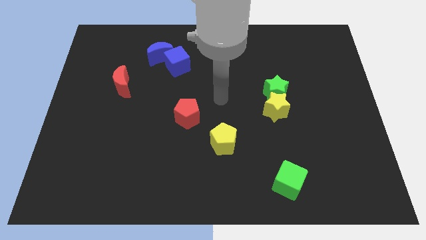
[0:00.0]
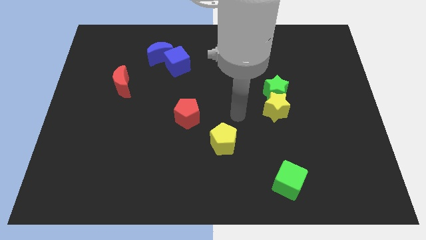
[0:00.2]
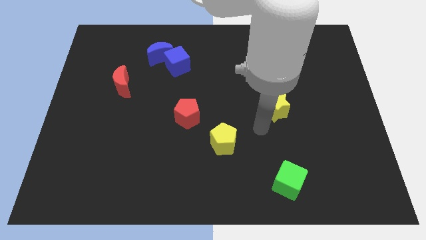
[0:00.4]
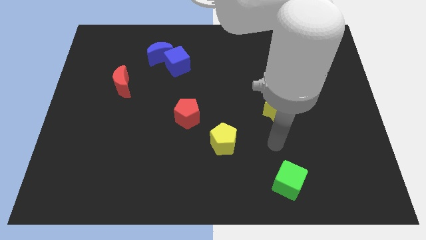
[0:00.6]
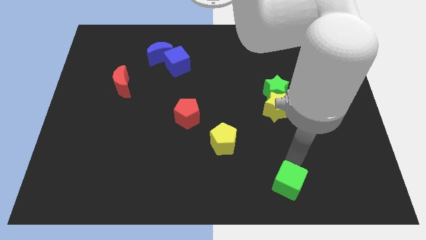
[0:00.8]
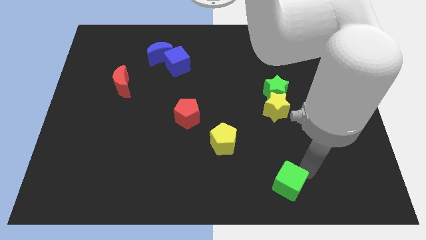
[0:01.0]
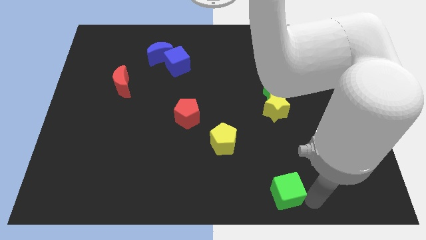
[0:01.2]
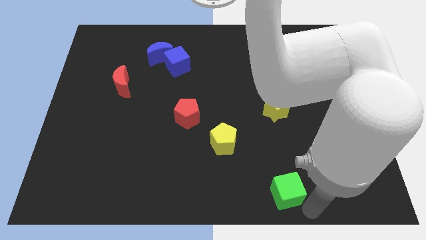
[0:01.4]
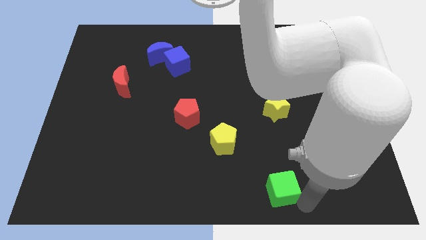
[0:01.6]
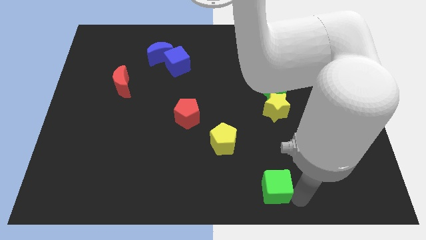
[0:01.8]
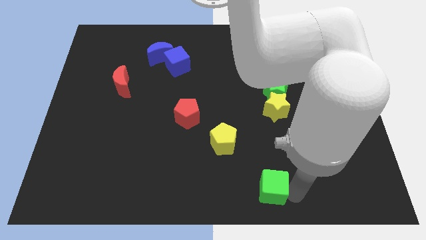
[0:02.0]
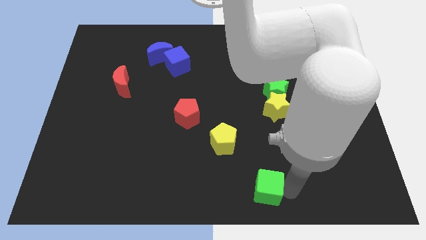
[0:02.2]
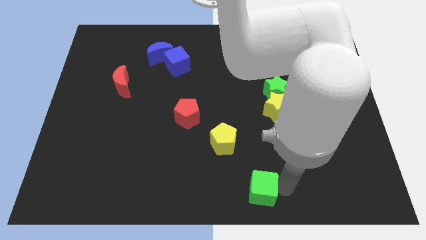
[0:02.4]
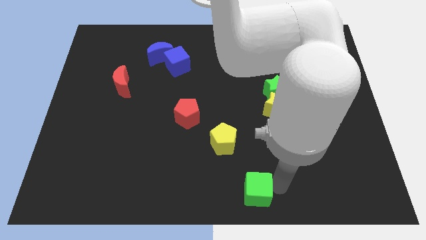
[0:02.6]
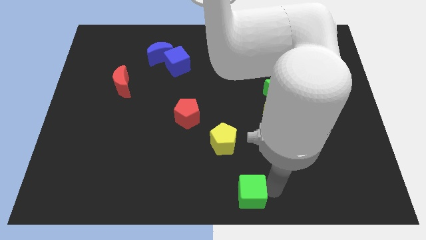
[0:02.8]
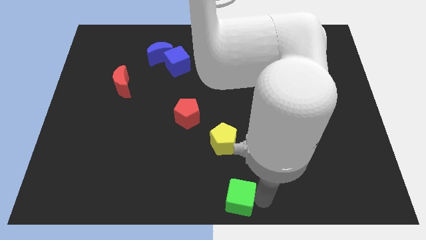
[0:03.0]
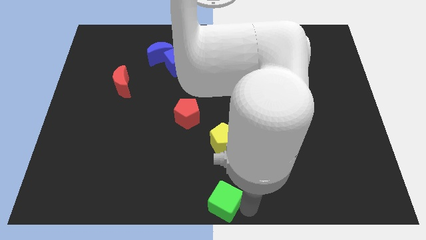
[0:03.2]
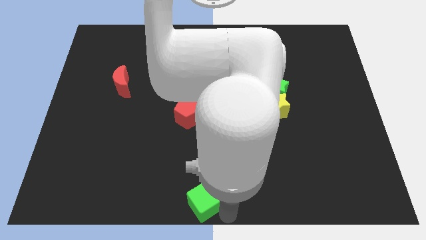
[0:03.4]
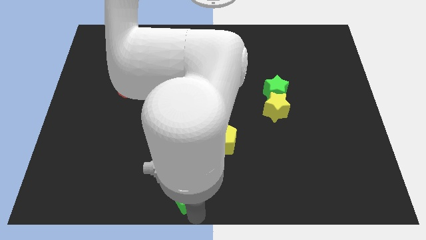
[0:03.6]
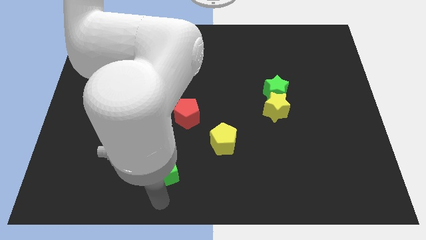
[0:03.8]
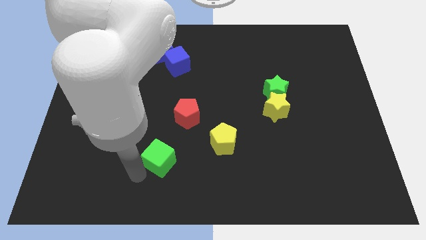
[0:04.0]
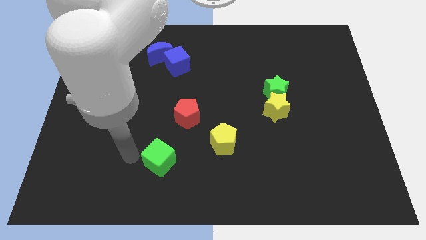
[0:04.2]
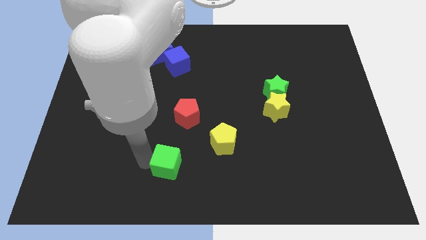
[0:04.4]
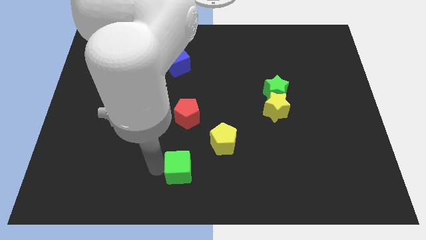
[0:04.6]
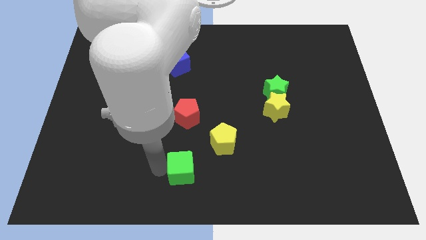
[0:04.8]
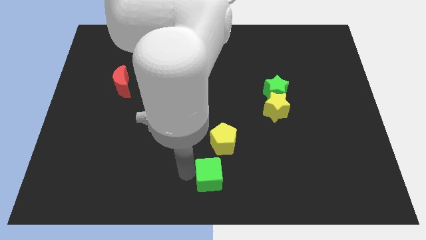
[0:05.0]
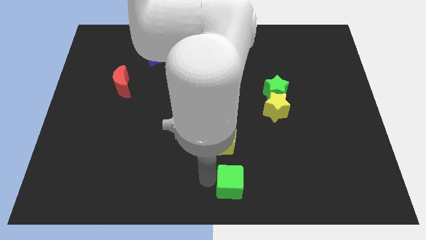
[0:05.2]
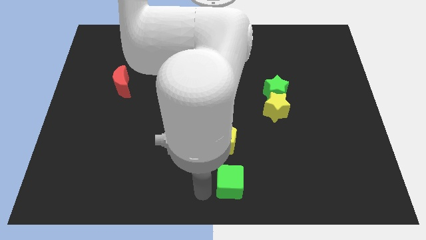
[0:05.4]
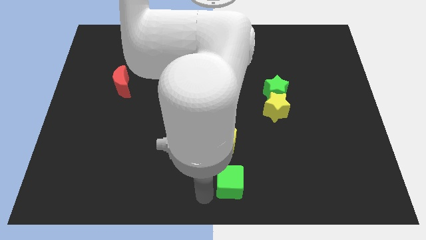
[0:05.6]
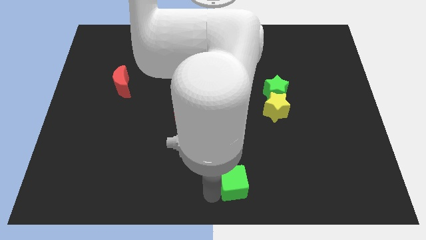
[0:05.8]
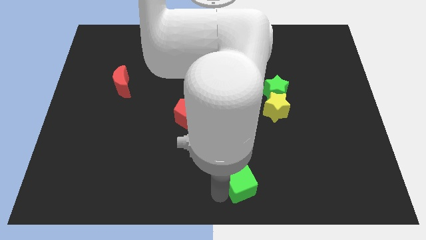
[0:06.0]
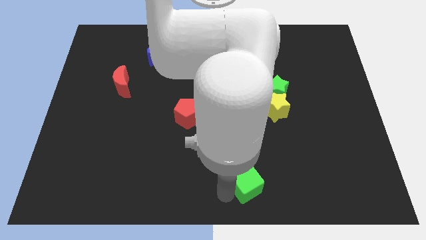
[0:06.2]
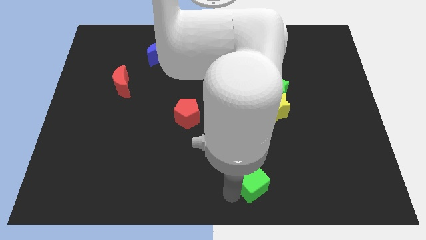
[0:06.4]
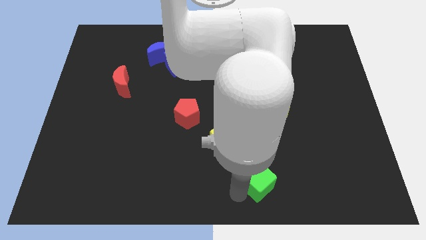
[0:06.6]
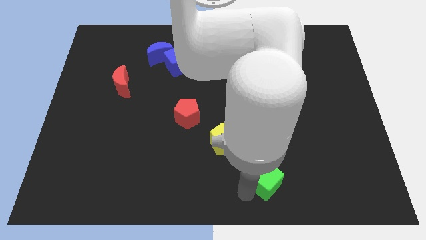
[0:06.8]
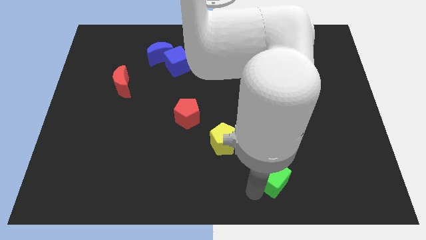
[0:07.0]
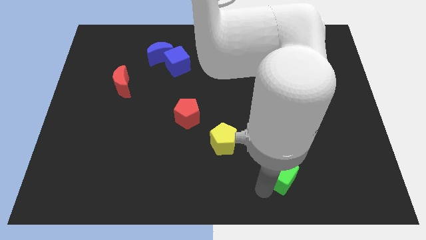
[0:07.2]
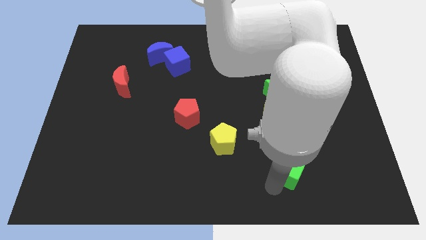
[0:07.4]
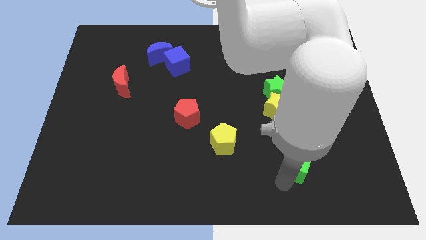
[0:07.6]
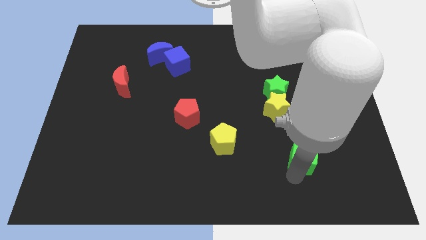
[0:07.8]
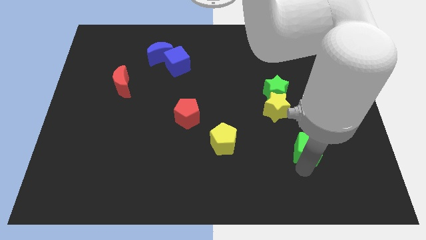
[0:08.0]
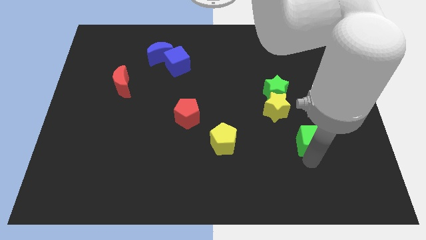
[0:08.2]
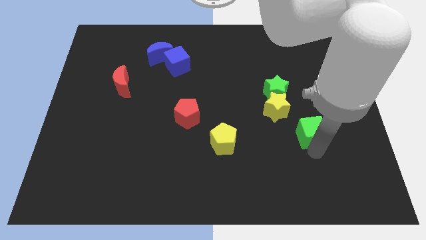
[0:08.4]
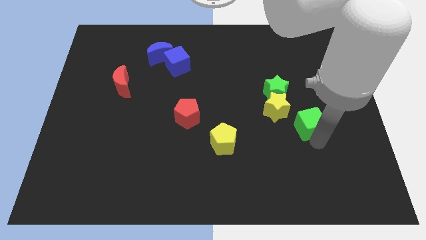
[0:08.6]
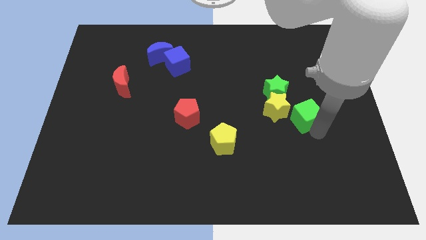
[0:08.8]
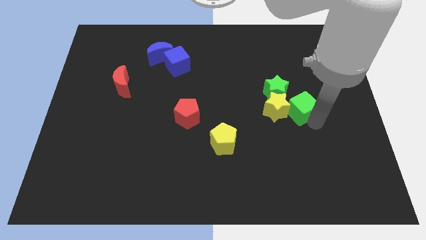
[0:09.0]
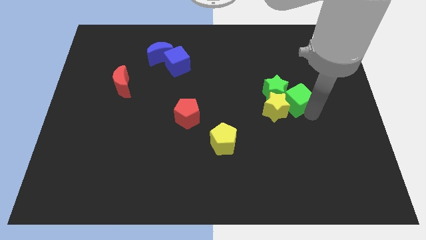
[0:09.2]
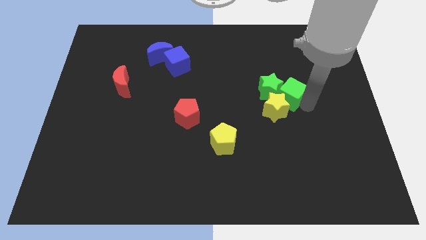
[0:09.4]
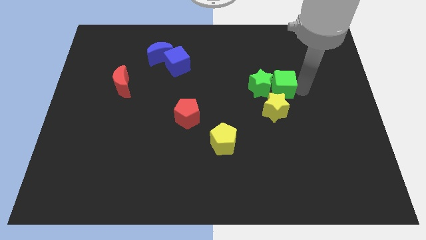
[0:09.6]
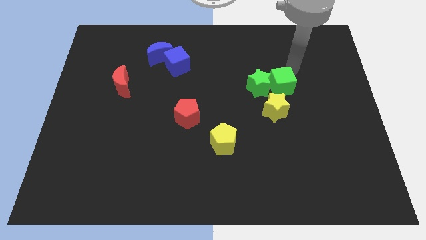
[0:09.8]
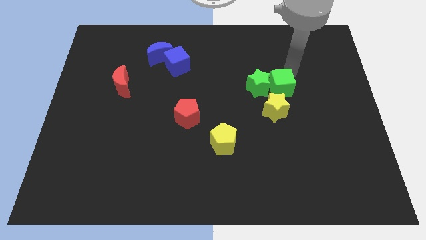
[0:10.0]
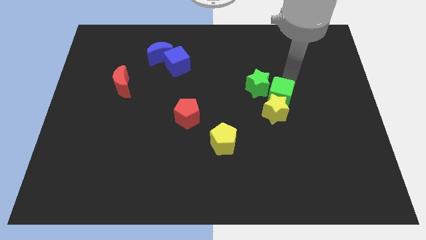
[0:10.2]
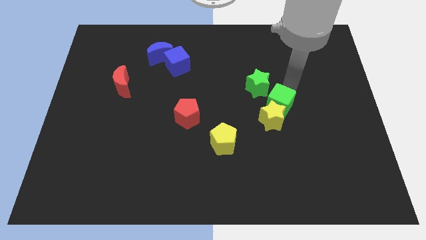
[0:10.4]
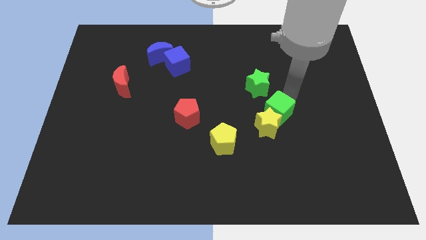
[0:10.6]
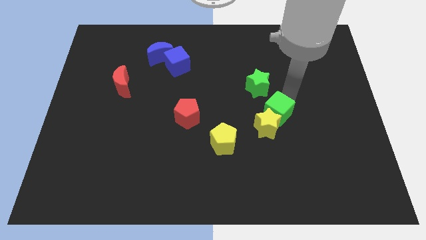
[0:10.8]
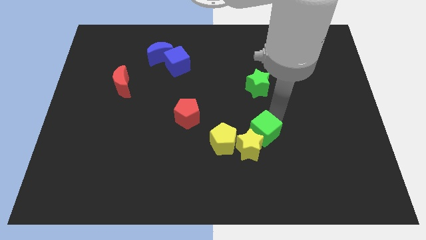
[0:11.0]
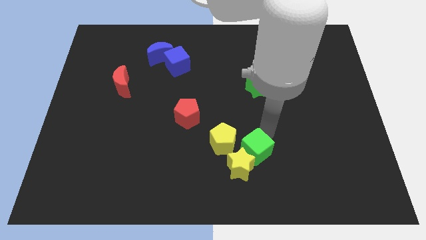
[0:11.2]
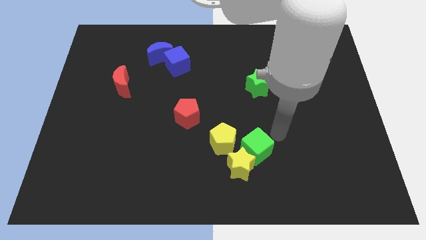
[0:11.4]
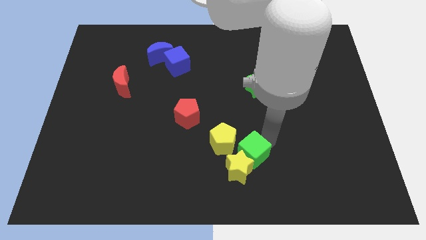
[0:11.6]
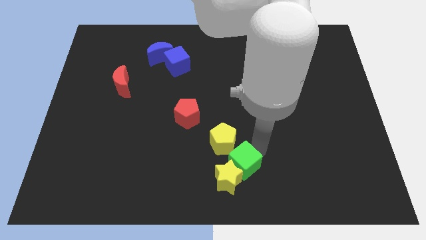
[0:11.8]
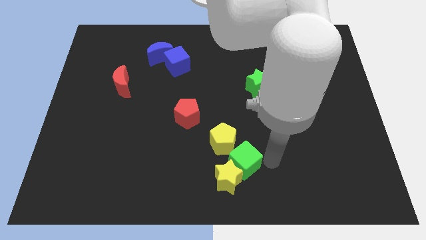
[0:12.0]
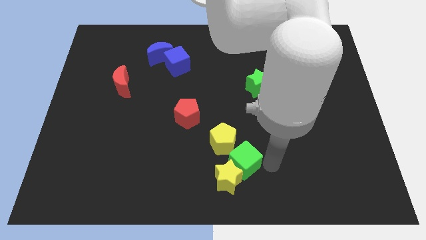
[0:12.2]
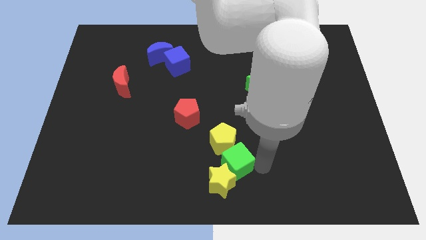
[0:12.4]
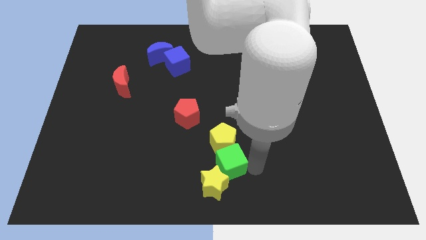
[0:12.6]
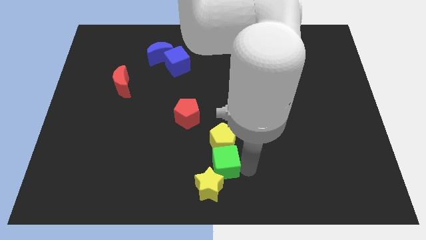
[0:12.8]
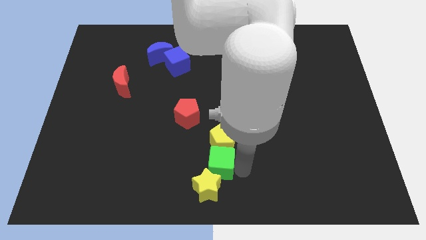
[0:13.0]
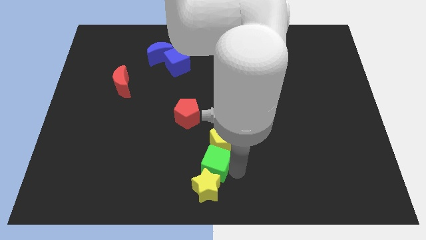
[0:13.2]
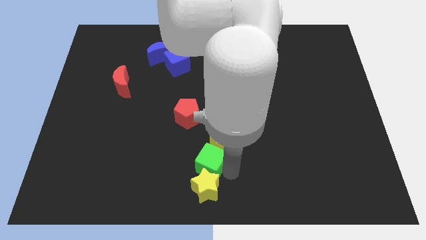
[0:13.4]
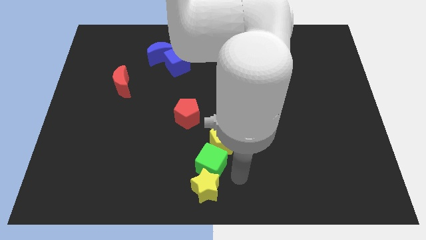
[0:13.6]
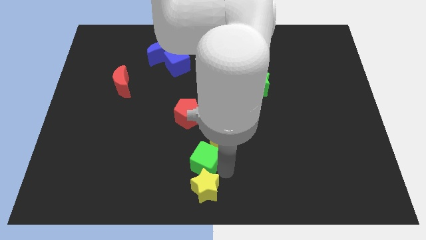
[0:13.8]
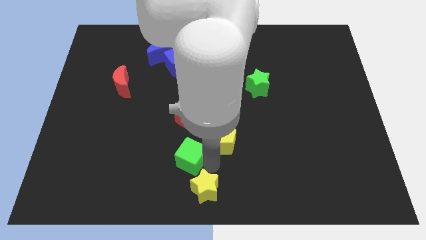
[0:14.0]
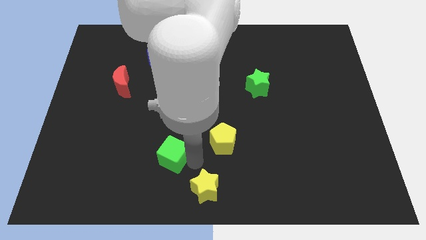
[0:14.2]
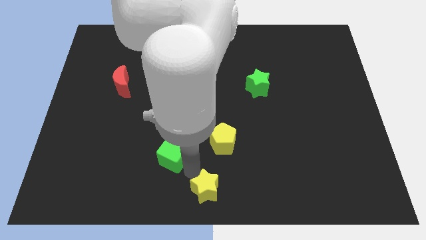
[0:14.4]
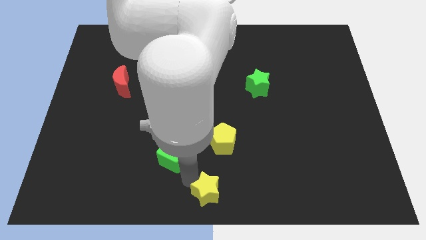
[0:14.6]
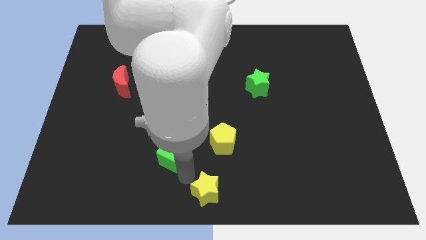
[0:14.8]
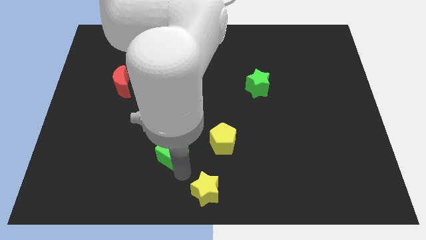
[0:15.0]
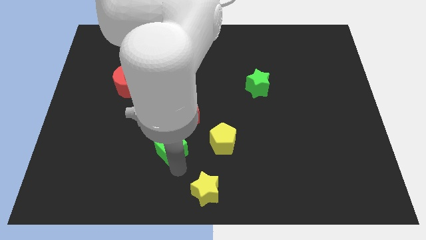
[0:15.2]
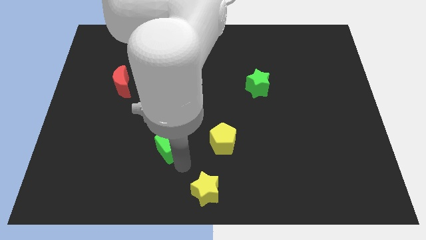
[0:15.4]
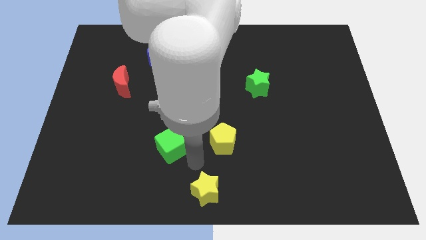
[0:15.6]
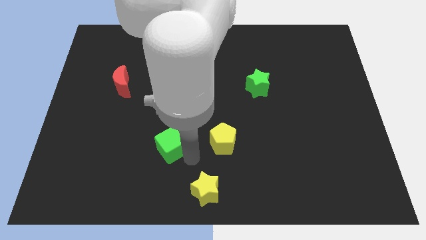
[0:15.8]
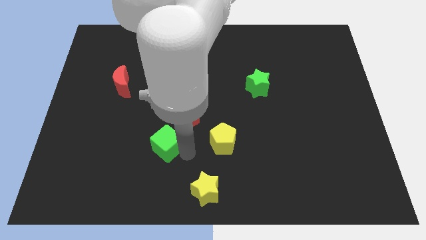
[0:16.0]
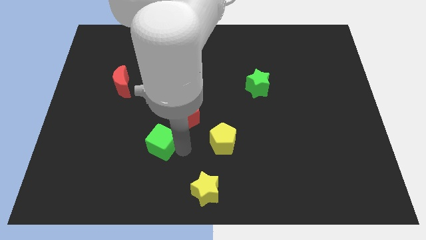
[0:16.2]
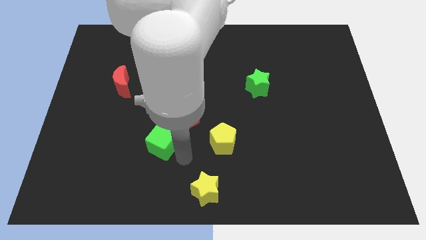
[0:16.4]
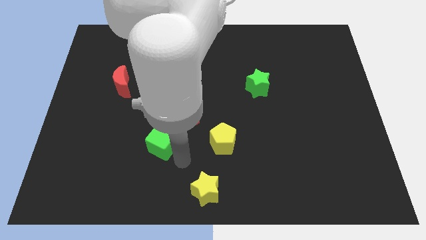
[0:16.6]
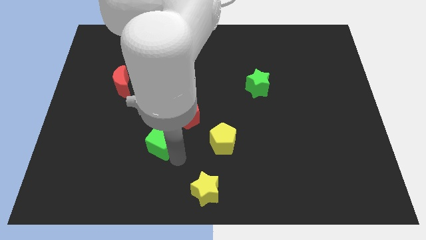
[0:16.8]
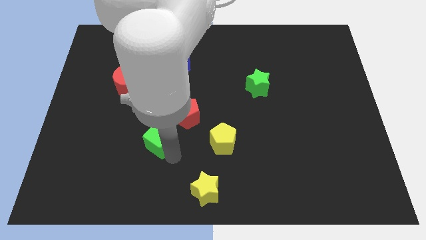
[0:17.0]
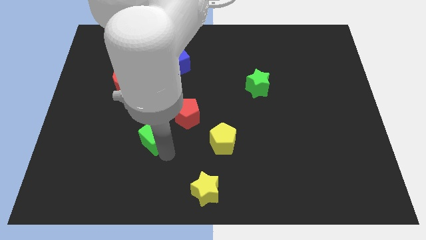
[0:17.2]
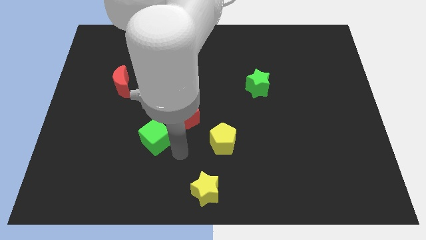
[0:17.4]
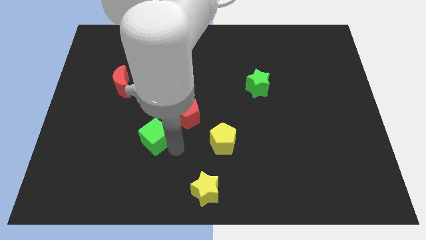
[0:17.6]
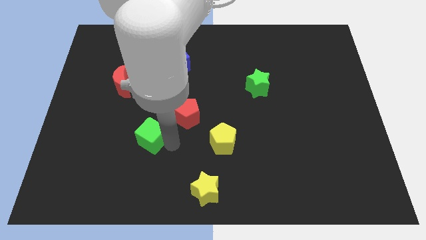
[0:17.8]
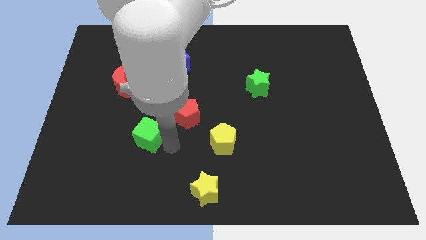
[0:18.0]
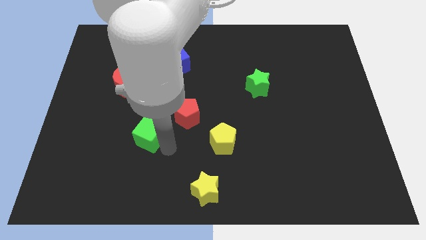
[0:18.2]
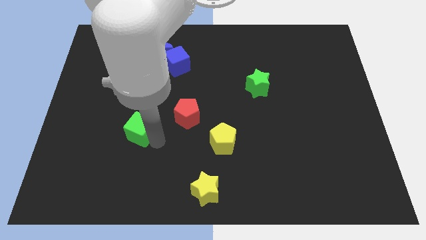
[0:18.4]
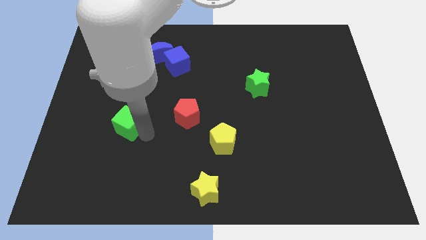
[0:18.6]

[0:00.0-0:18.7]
push the green cube to the bottom of the red moon
